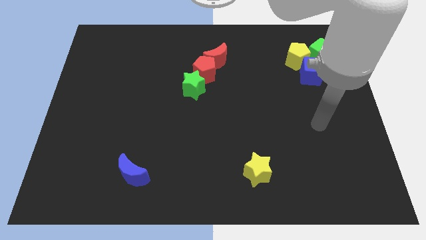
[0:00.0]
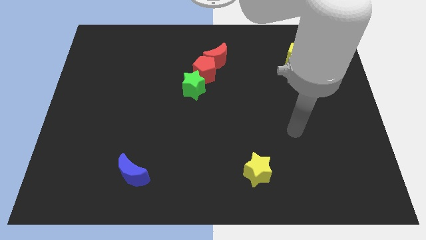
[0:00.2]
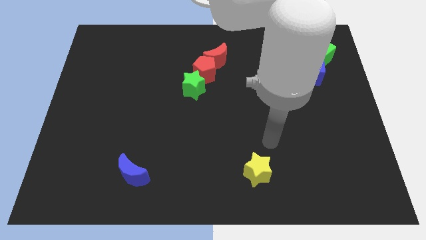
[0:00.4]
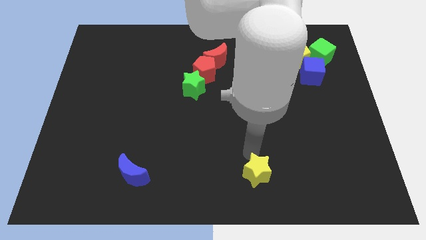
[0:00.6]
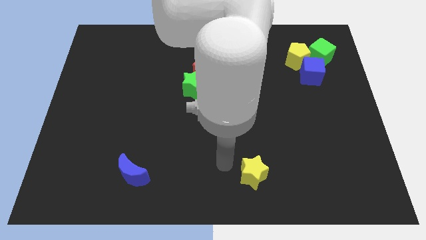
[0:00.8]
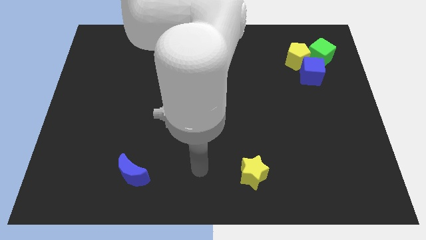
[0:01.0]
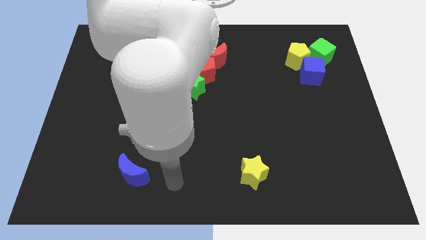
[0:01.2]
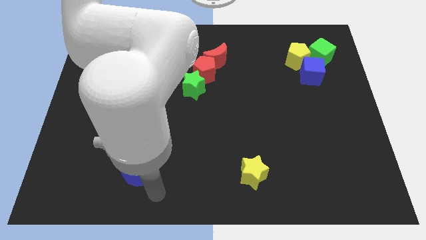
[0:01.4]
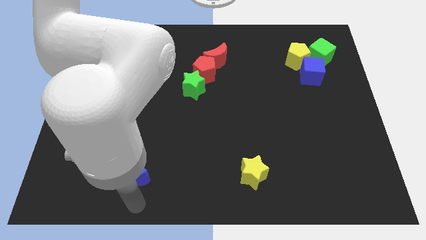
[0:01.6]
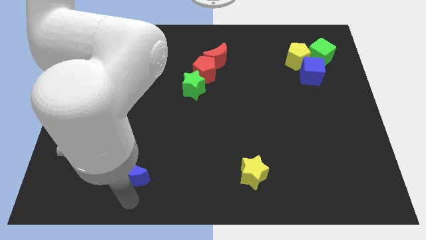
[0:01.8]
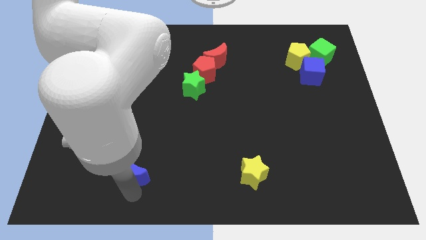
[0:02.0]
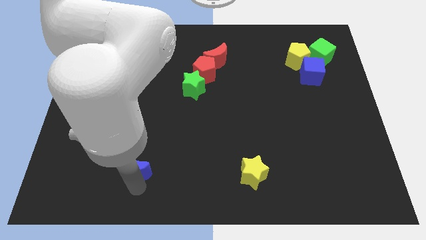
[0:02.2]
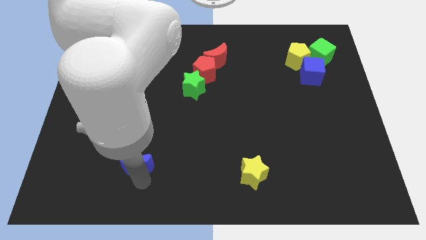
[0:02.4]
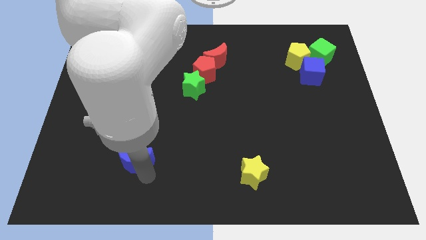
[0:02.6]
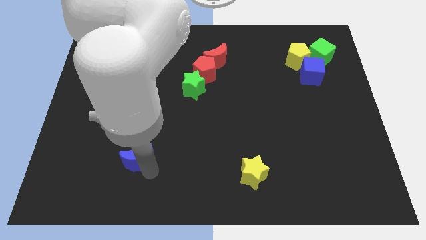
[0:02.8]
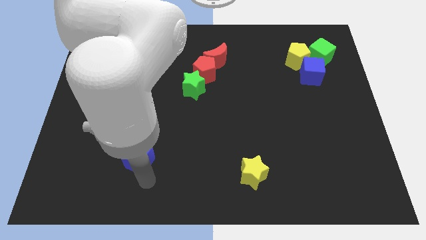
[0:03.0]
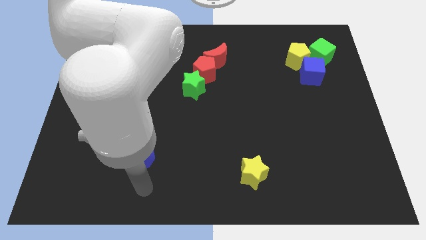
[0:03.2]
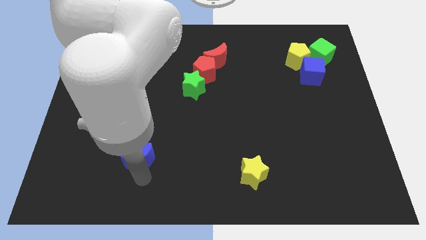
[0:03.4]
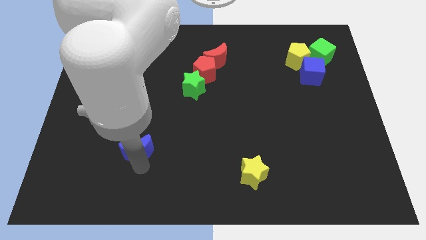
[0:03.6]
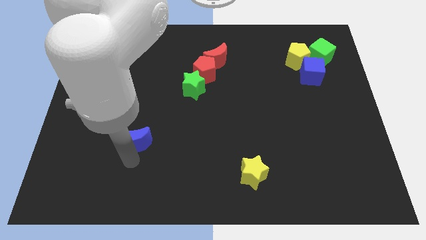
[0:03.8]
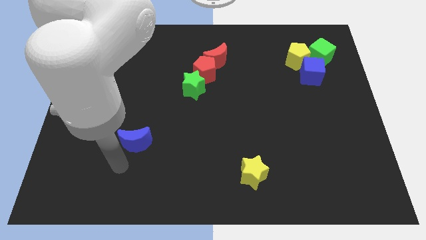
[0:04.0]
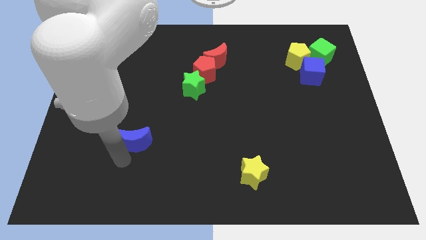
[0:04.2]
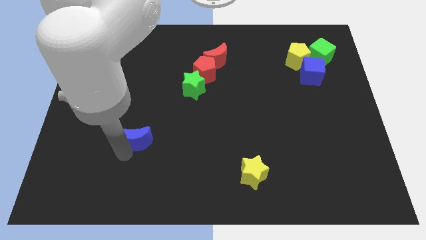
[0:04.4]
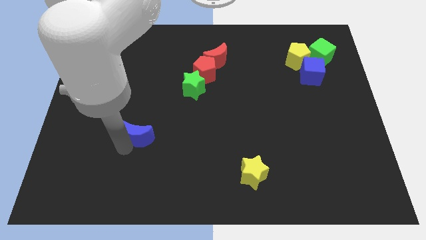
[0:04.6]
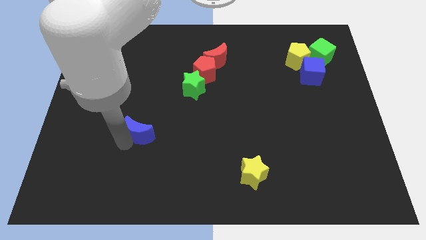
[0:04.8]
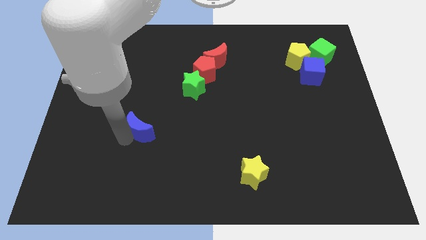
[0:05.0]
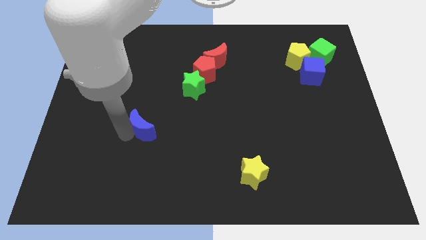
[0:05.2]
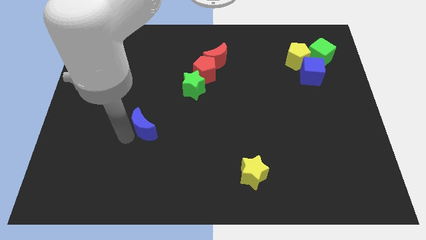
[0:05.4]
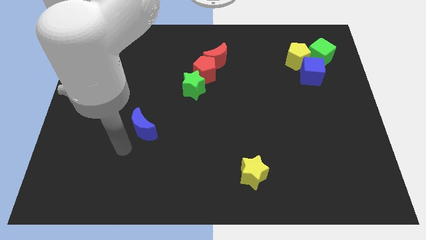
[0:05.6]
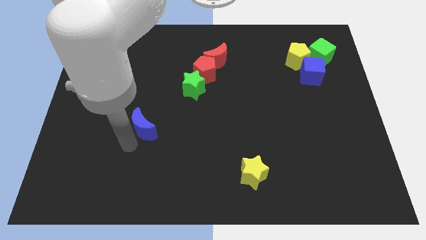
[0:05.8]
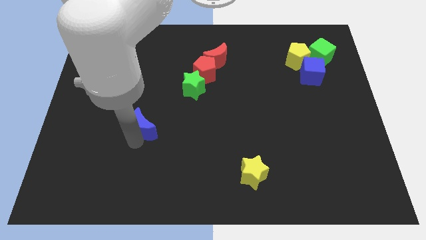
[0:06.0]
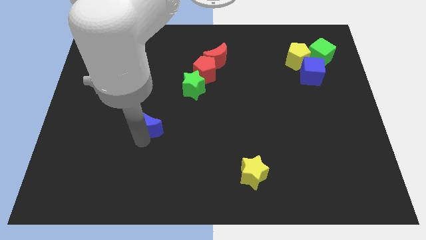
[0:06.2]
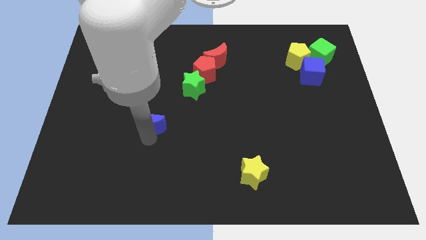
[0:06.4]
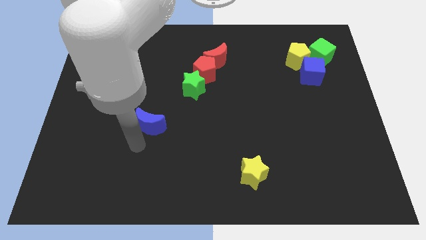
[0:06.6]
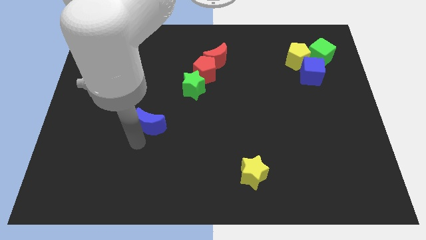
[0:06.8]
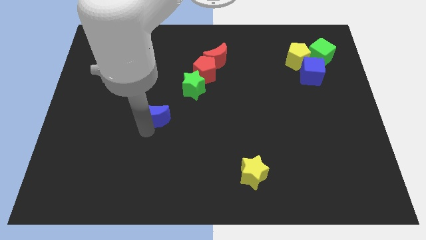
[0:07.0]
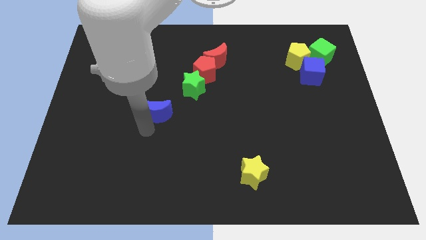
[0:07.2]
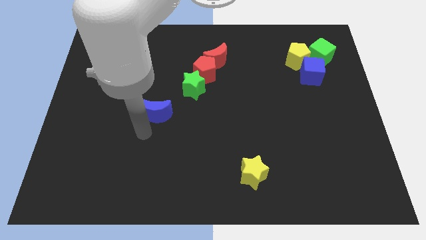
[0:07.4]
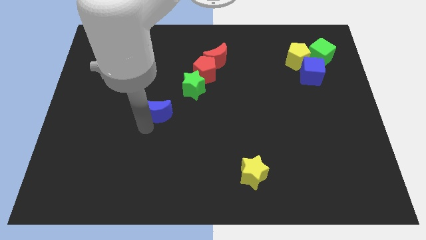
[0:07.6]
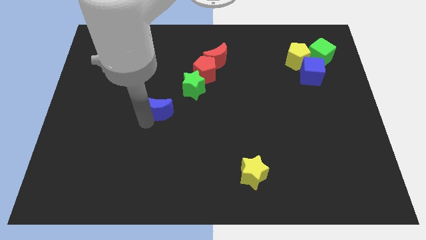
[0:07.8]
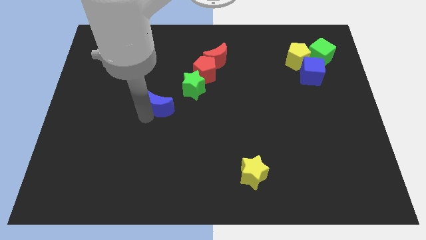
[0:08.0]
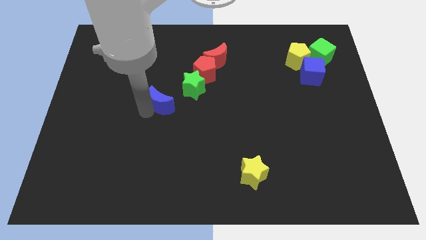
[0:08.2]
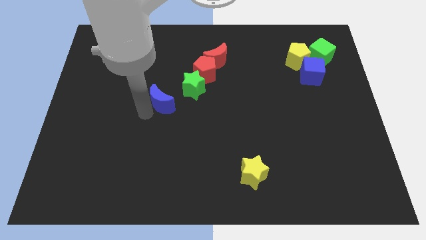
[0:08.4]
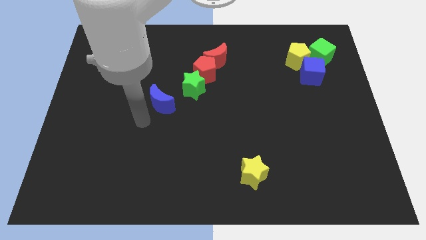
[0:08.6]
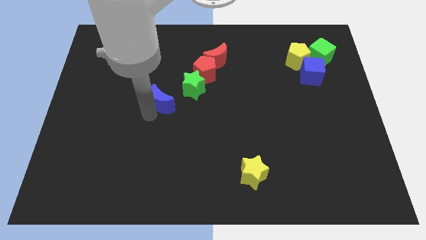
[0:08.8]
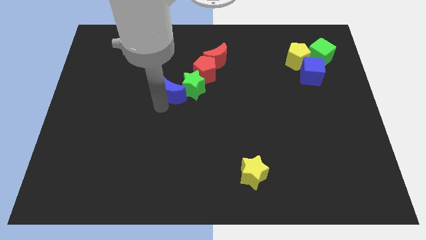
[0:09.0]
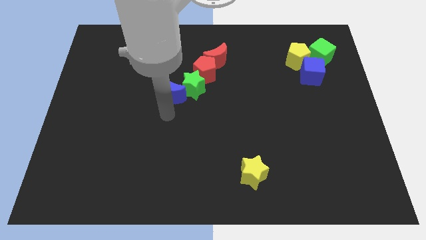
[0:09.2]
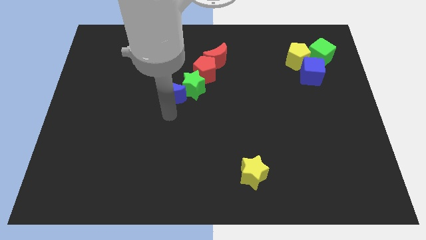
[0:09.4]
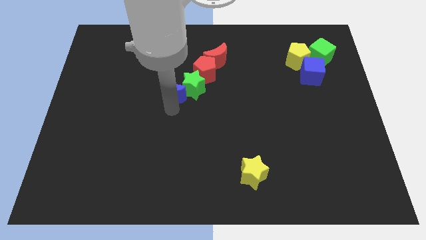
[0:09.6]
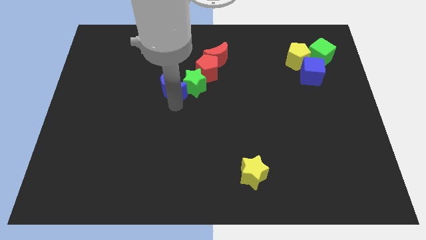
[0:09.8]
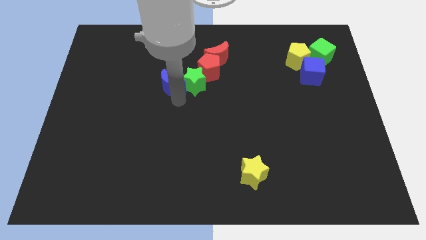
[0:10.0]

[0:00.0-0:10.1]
slide the blue moon to the top left side of the green star

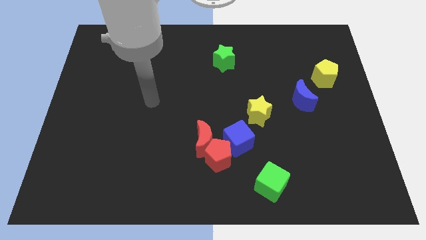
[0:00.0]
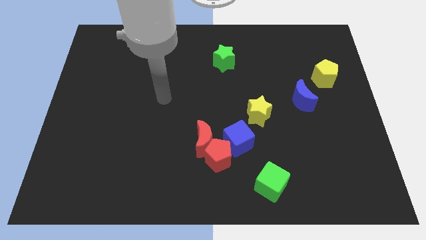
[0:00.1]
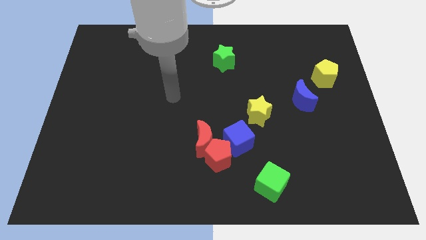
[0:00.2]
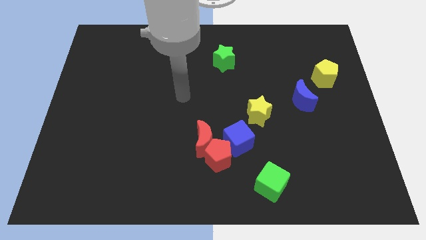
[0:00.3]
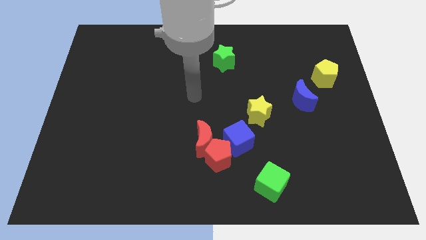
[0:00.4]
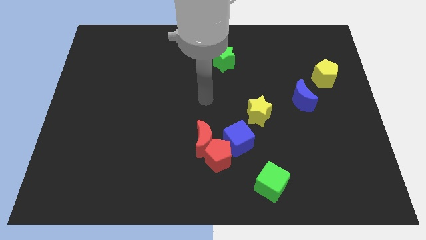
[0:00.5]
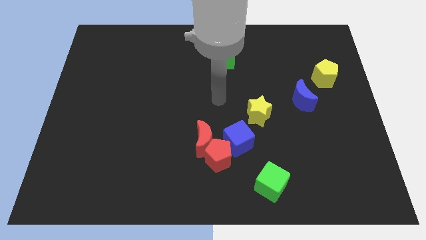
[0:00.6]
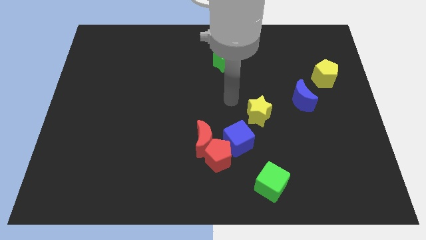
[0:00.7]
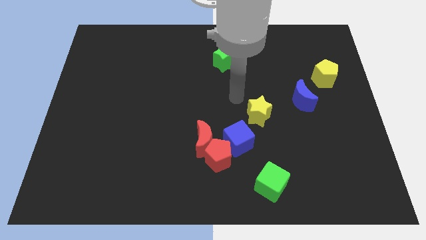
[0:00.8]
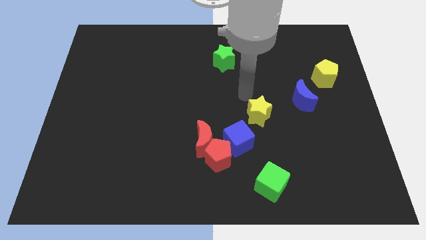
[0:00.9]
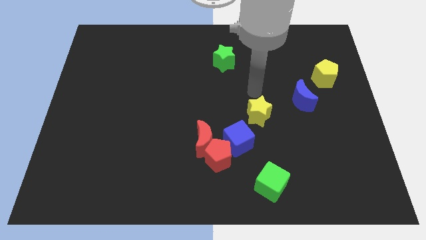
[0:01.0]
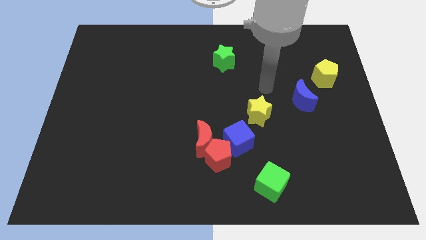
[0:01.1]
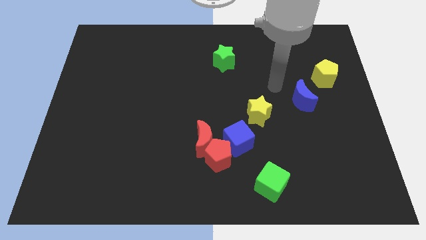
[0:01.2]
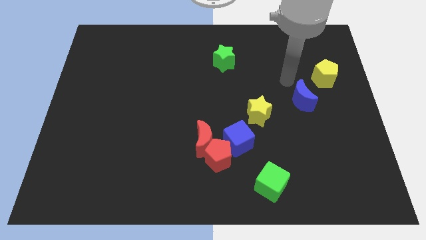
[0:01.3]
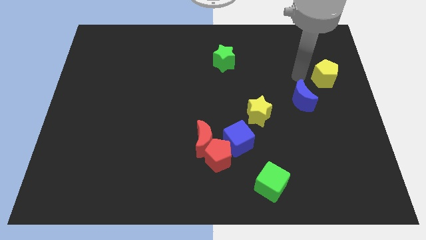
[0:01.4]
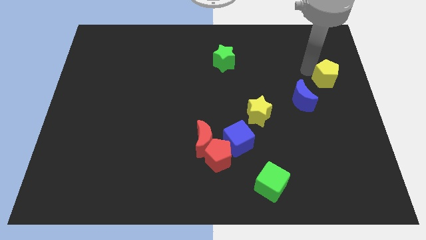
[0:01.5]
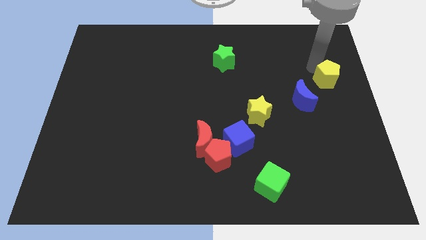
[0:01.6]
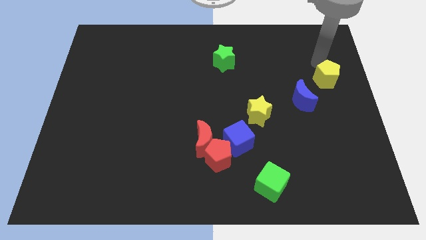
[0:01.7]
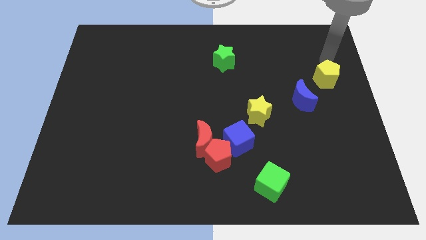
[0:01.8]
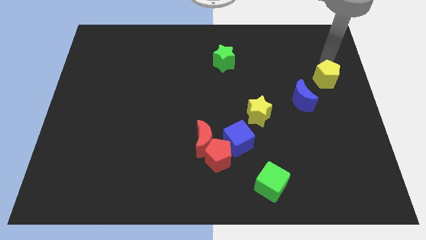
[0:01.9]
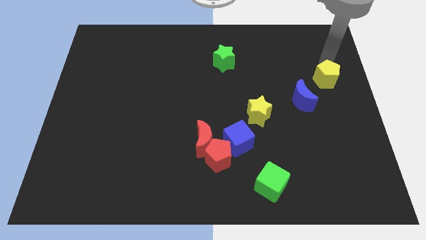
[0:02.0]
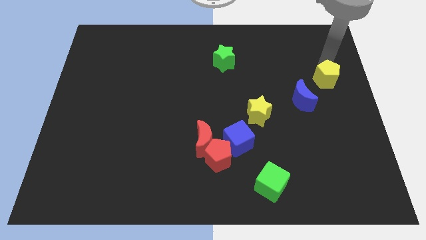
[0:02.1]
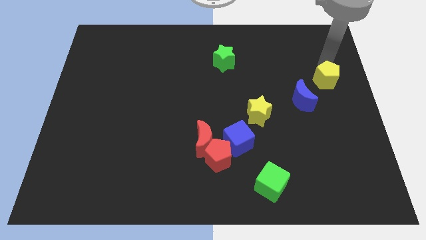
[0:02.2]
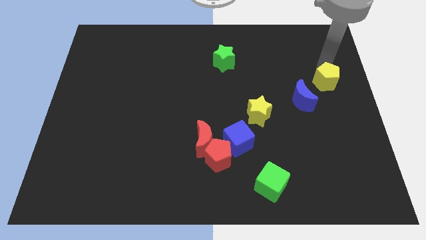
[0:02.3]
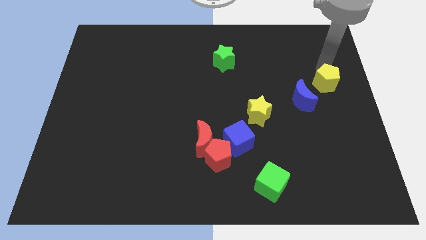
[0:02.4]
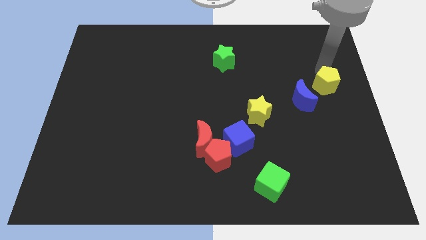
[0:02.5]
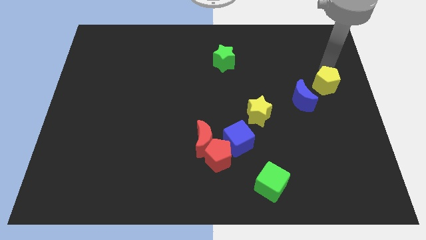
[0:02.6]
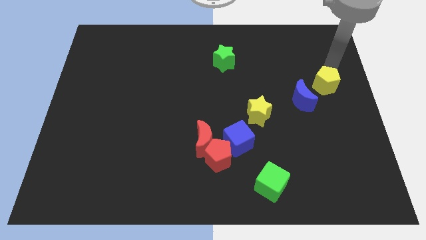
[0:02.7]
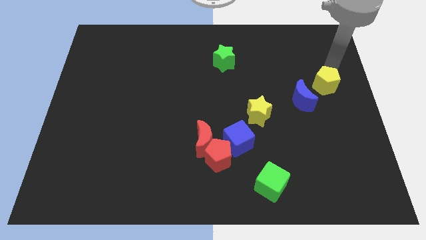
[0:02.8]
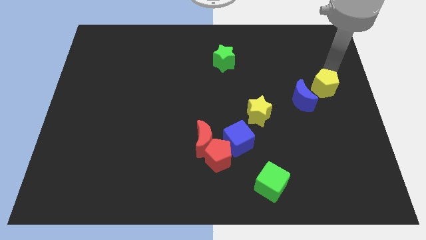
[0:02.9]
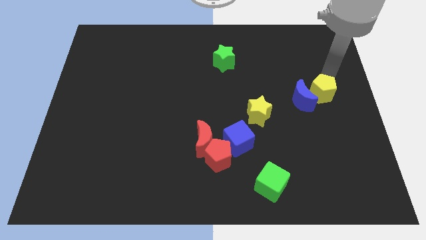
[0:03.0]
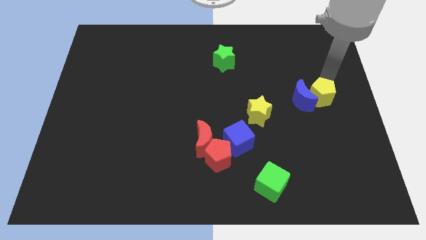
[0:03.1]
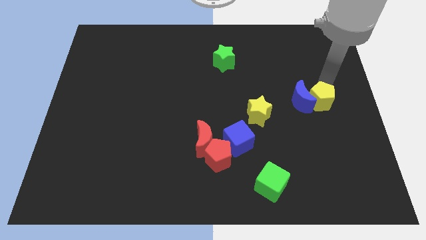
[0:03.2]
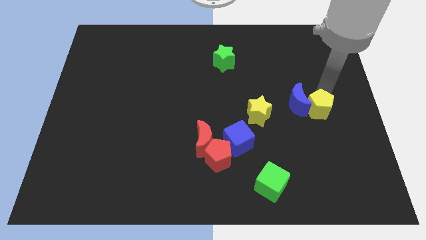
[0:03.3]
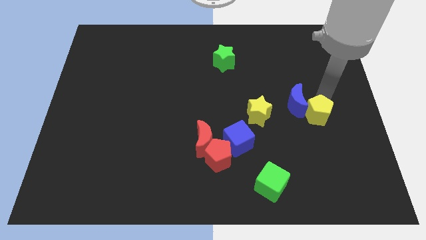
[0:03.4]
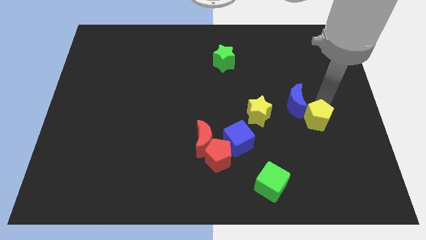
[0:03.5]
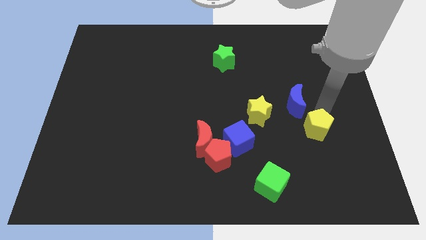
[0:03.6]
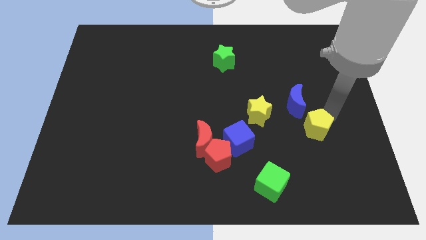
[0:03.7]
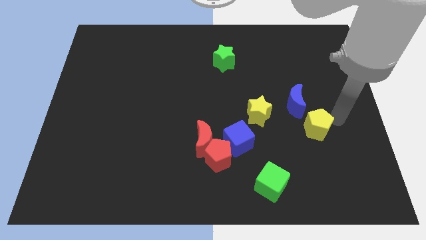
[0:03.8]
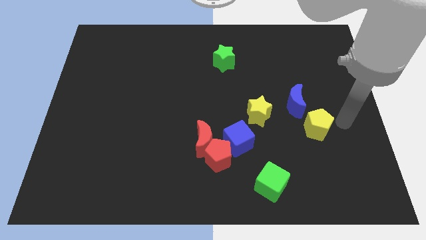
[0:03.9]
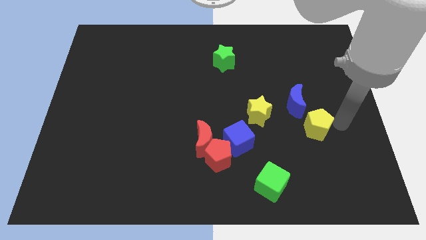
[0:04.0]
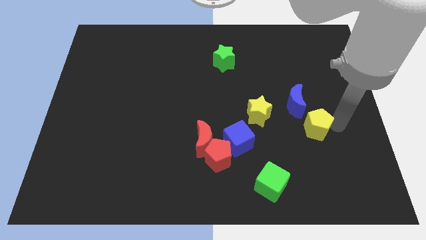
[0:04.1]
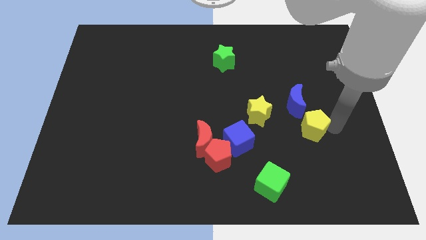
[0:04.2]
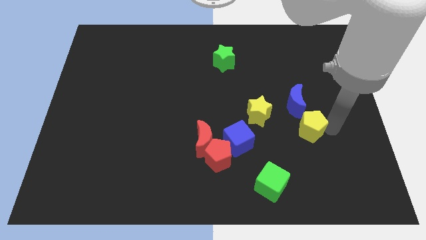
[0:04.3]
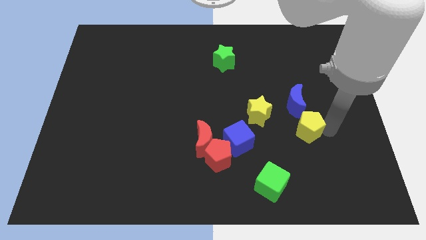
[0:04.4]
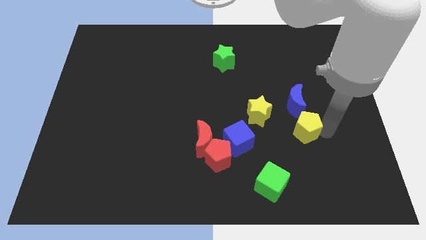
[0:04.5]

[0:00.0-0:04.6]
slide the yellow pentagon to the bottom right of the yellow star
